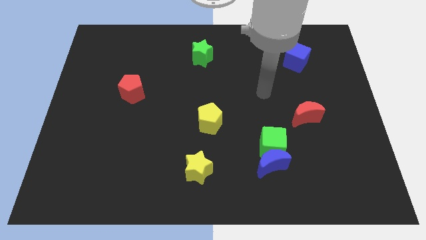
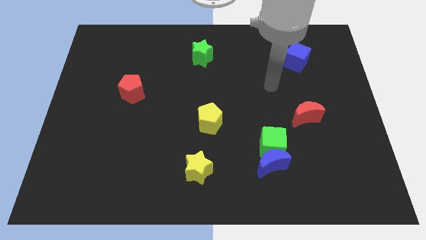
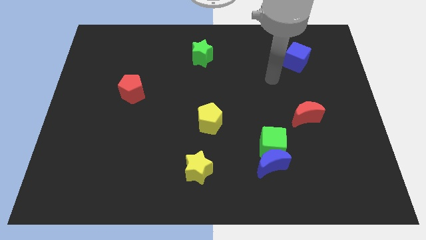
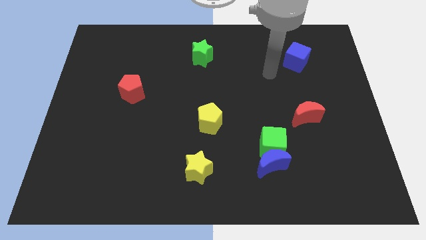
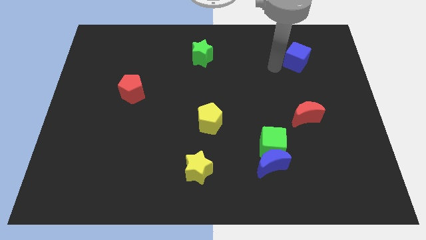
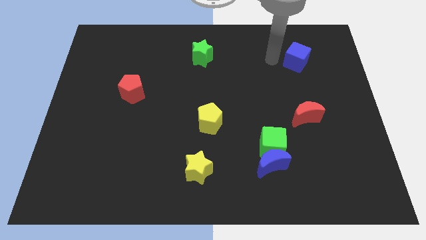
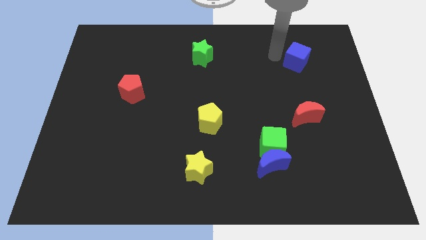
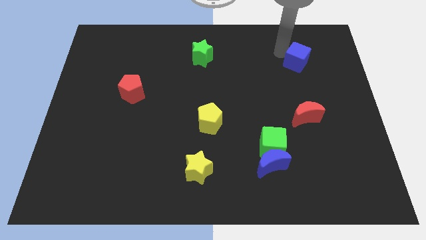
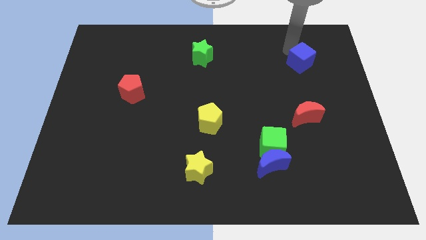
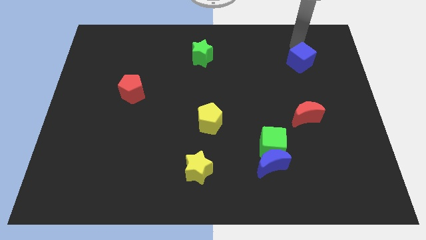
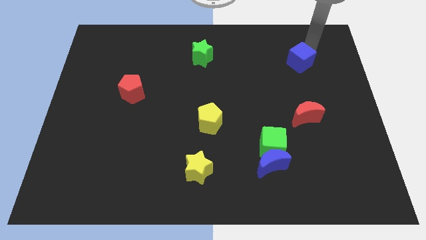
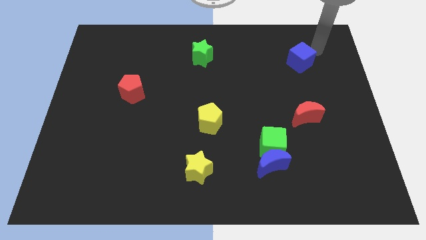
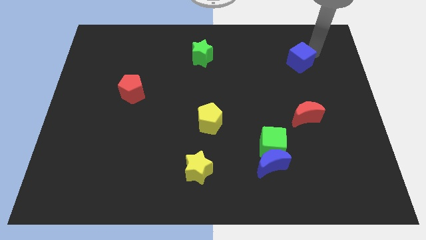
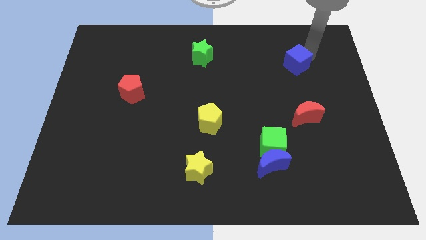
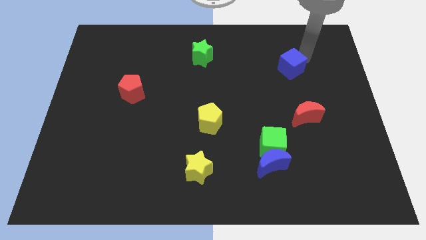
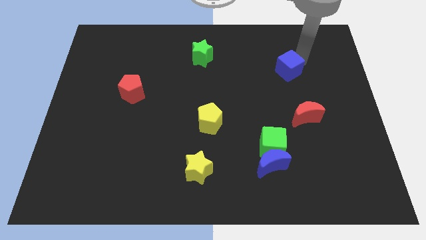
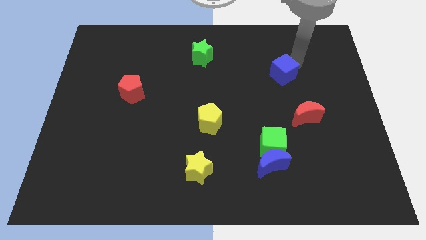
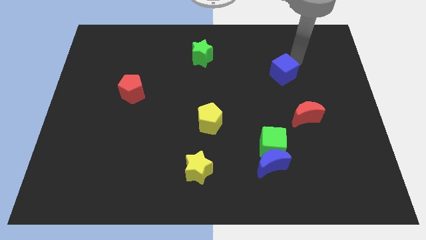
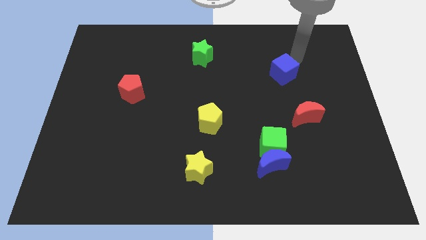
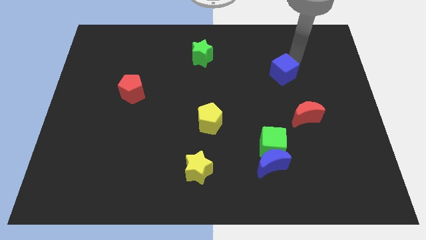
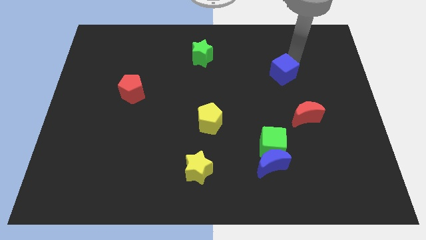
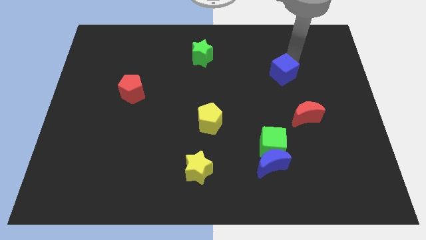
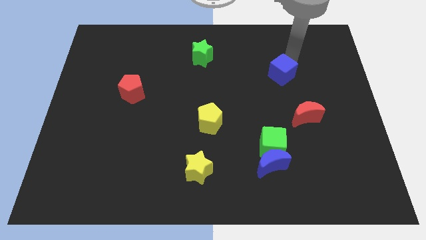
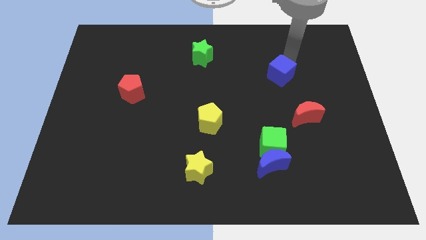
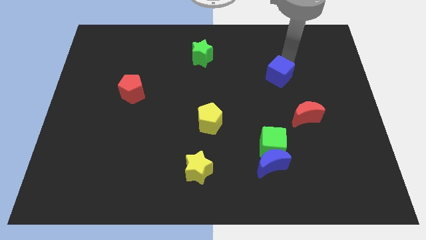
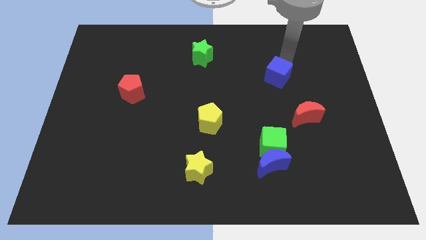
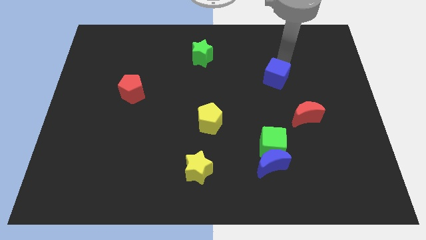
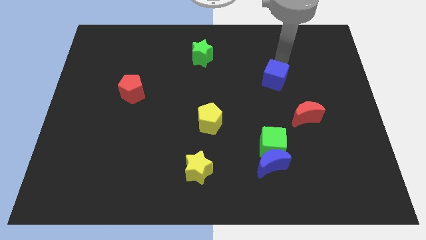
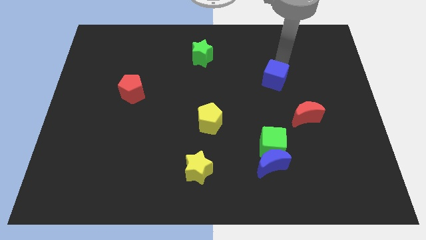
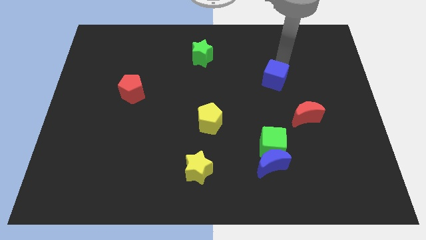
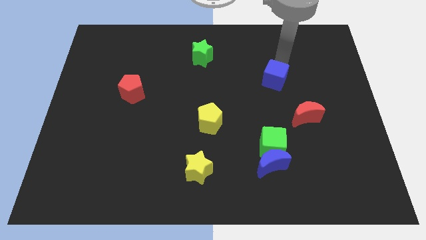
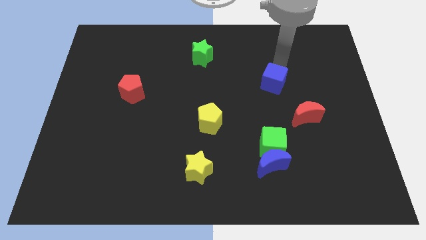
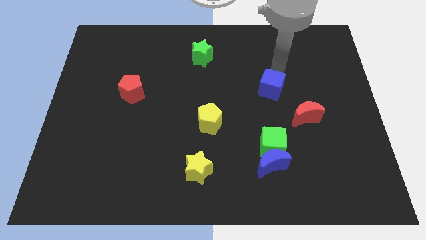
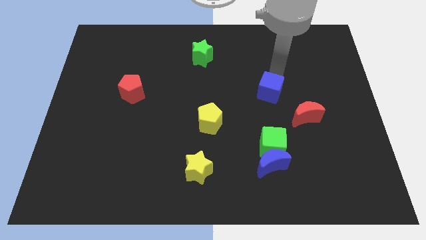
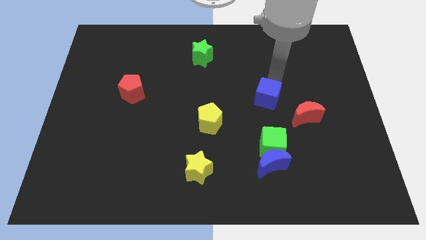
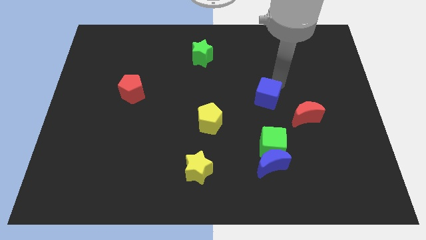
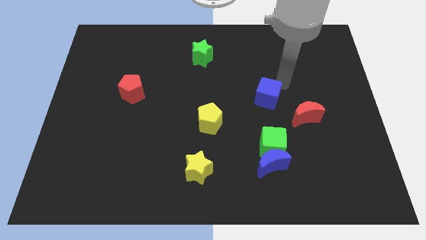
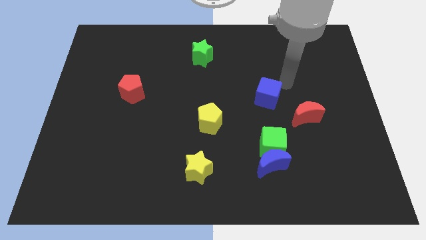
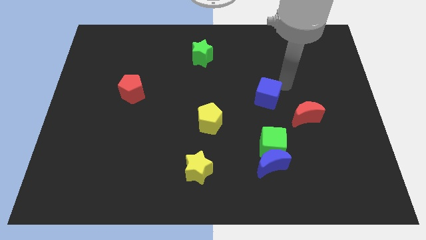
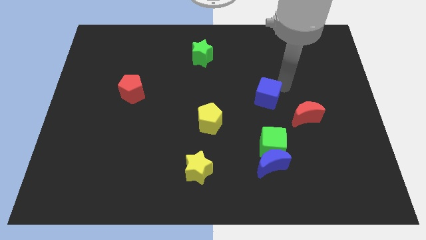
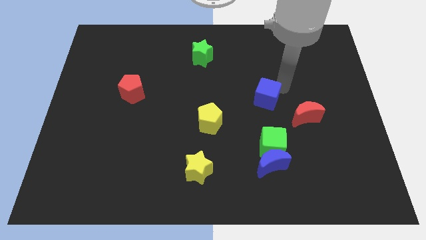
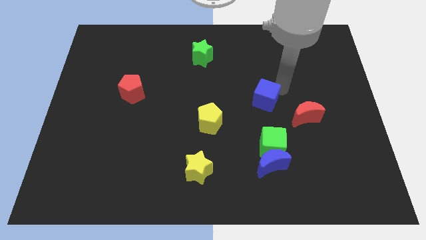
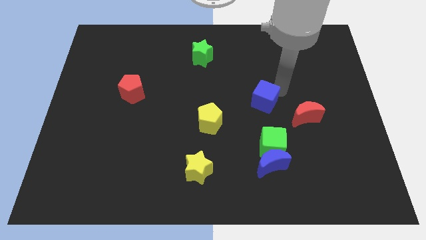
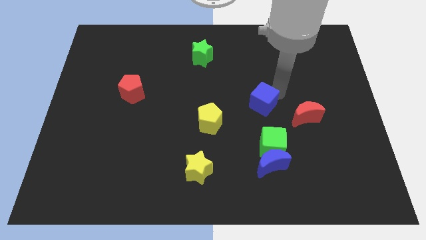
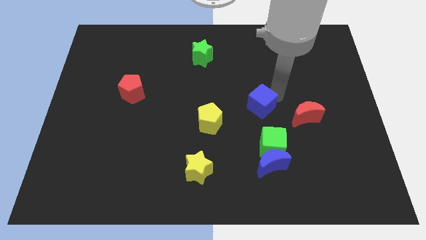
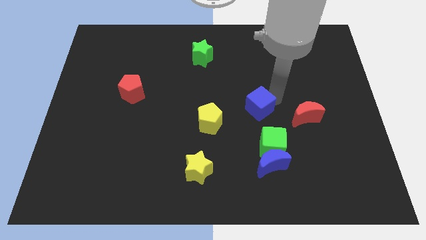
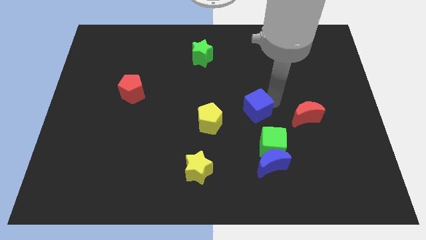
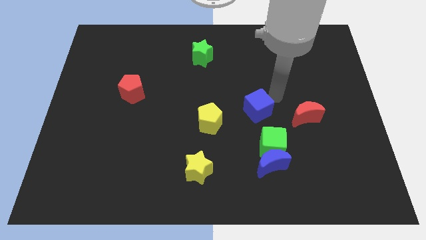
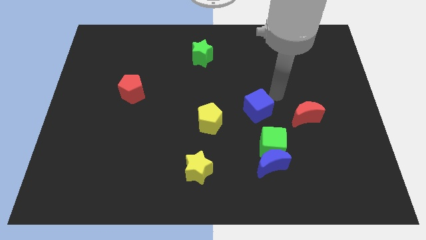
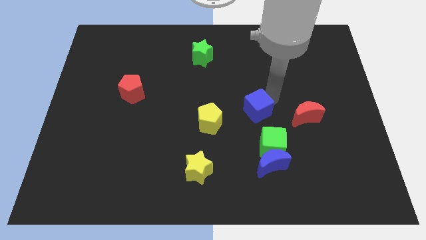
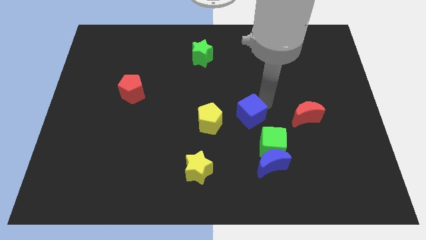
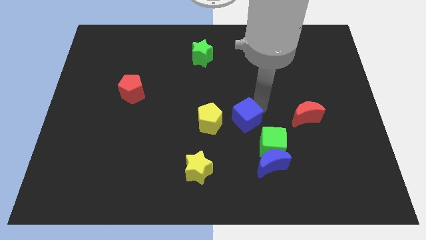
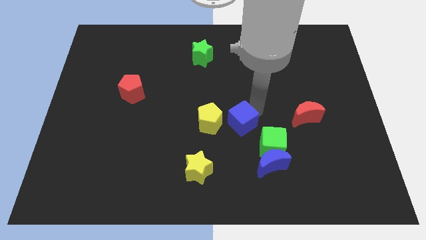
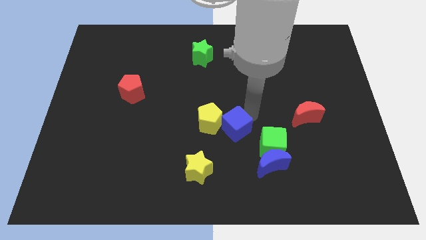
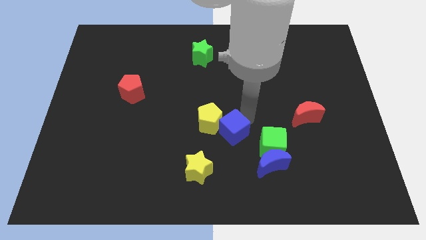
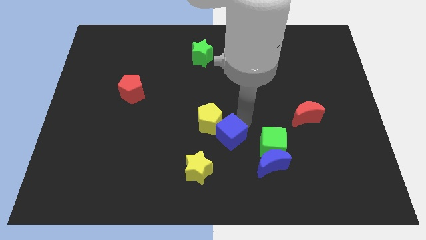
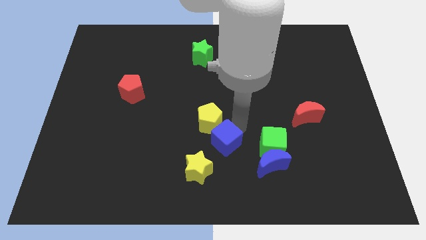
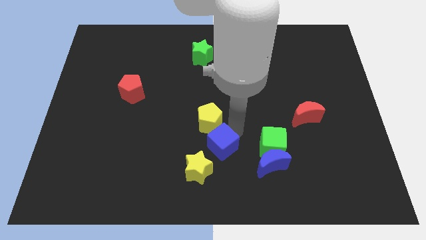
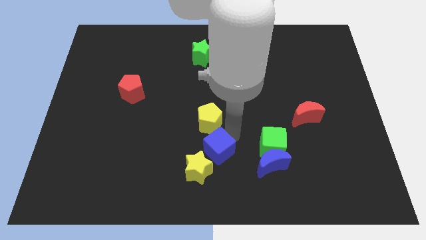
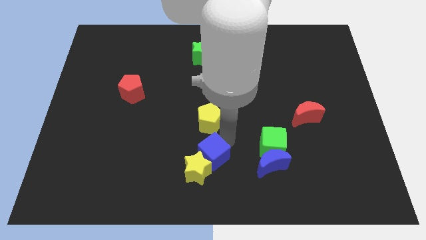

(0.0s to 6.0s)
put the blue cube towards the yellow star
